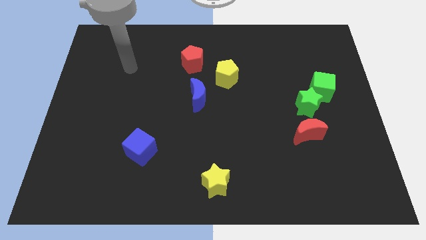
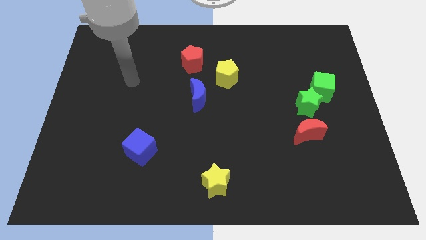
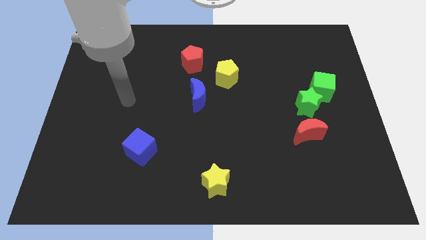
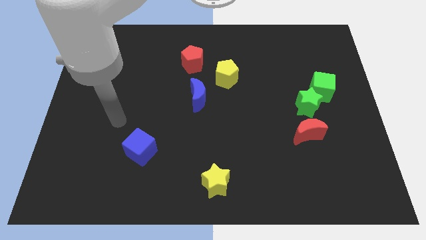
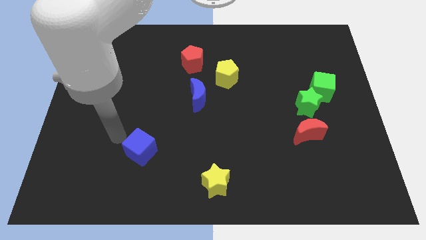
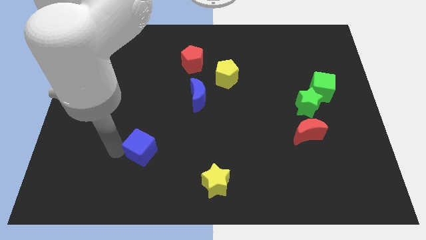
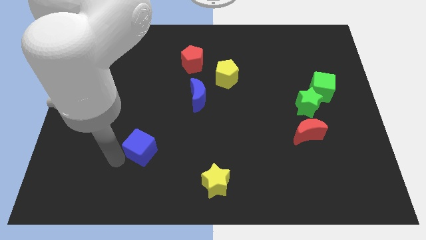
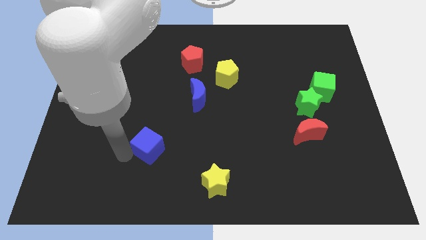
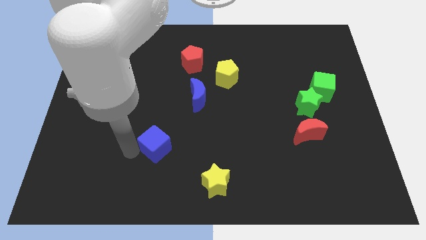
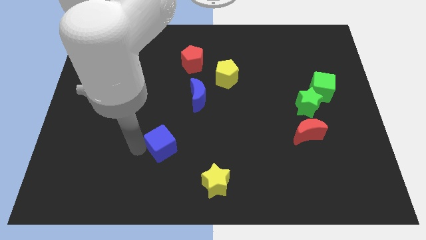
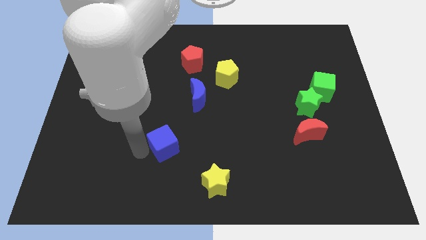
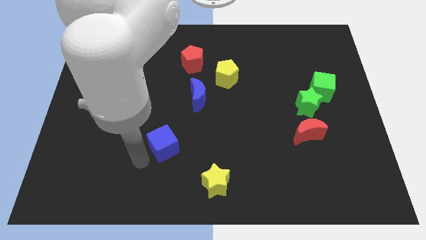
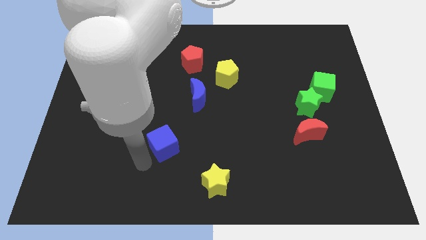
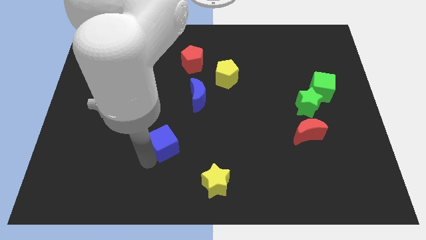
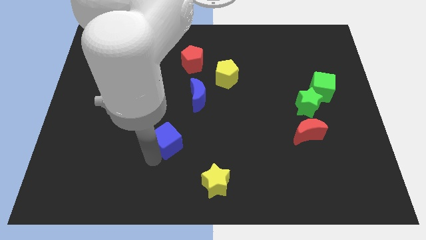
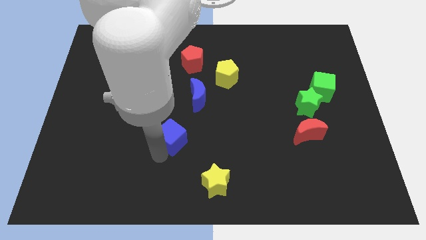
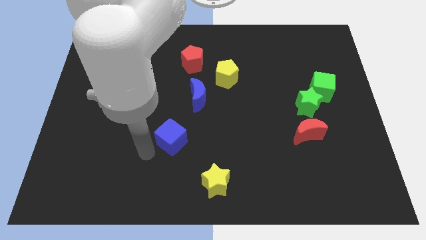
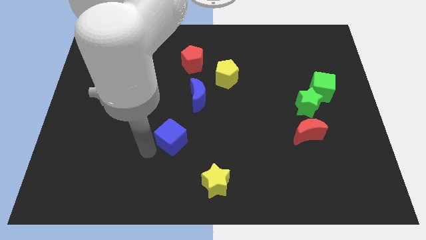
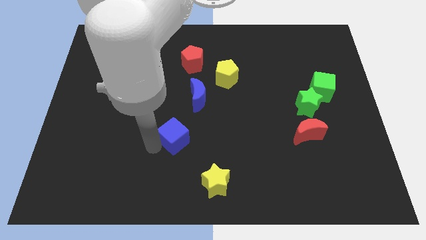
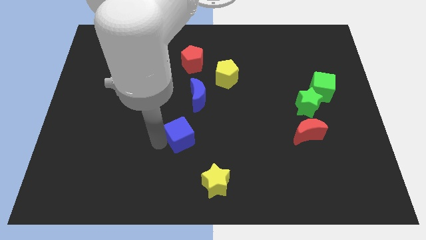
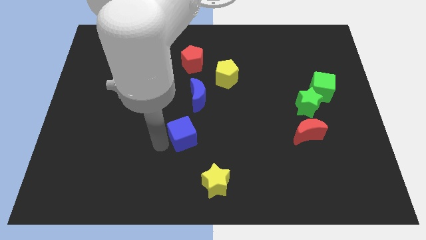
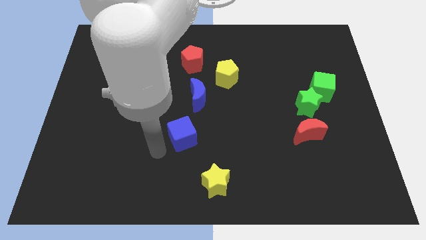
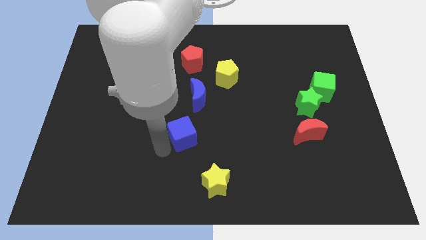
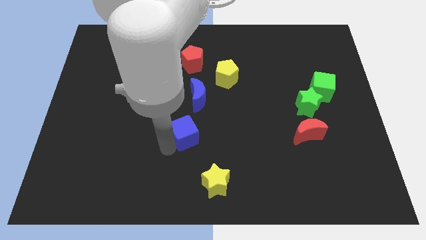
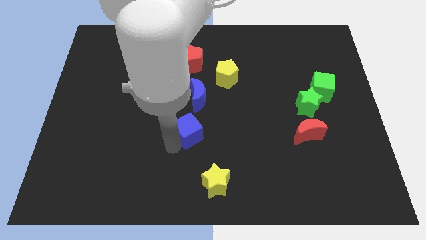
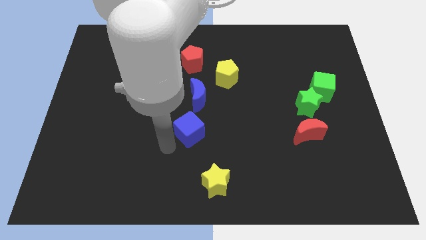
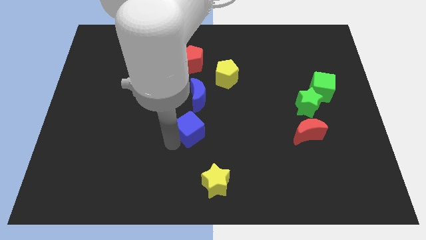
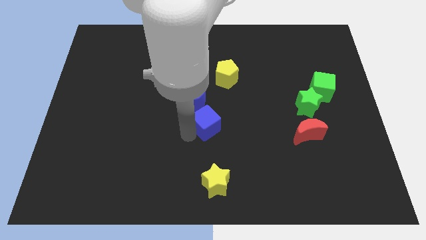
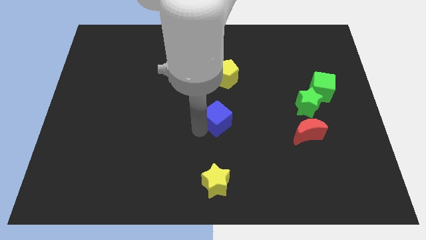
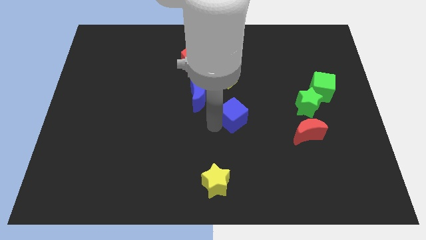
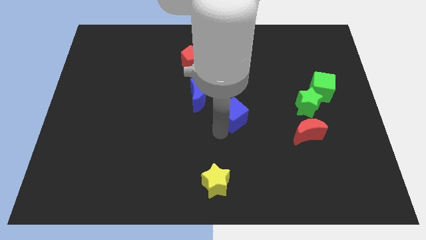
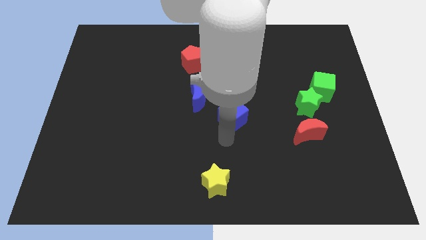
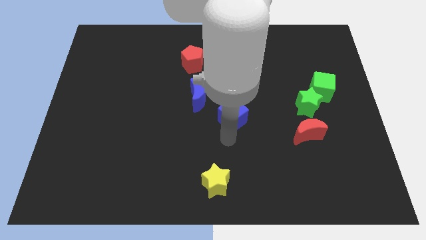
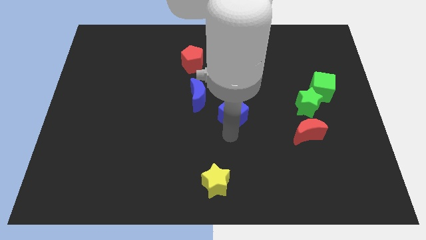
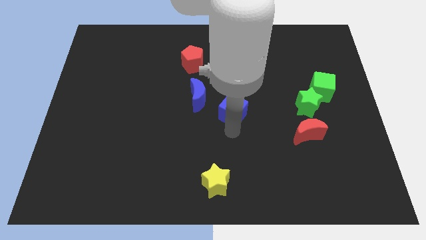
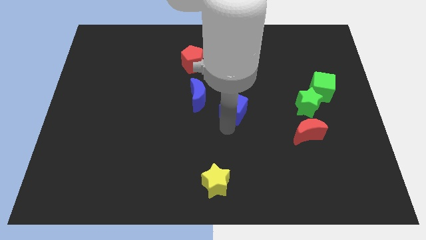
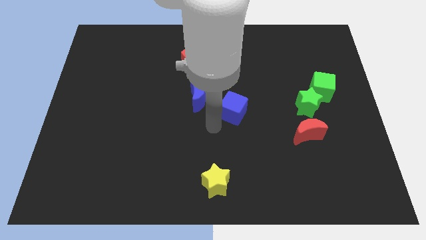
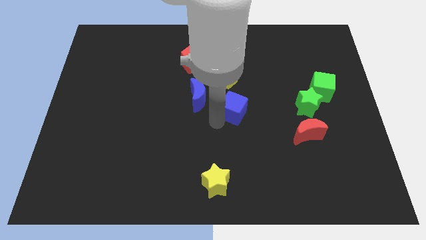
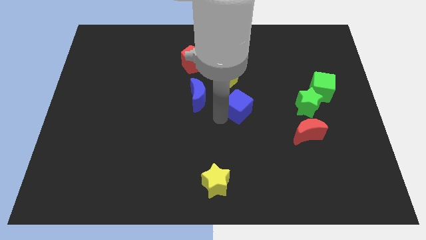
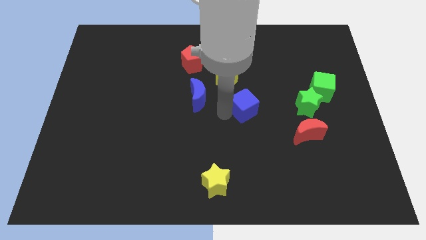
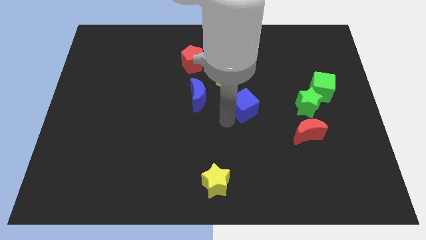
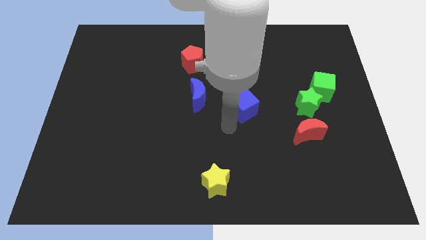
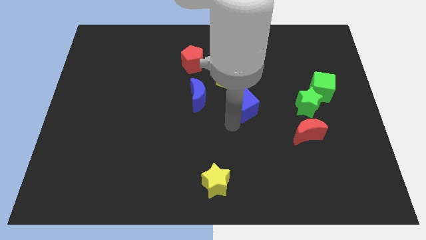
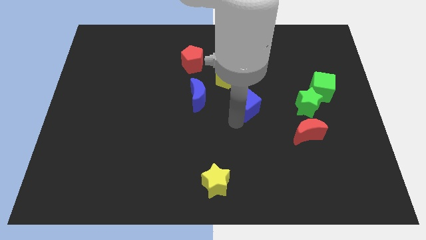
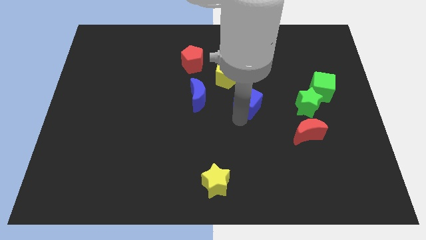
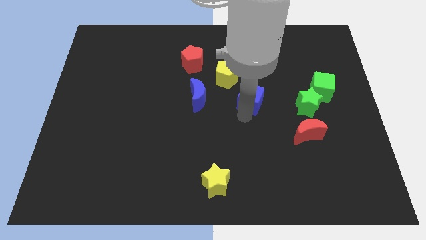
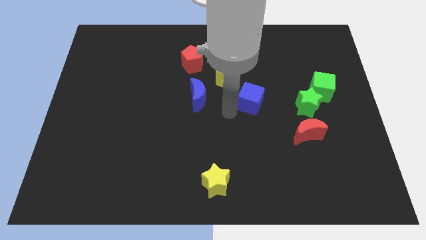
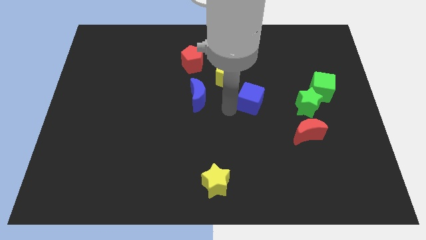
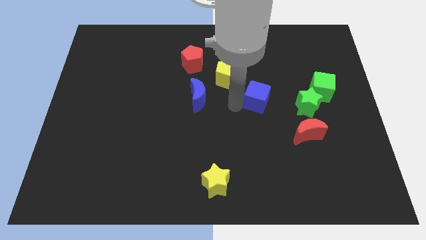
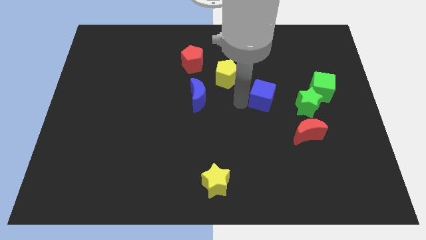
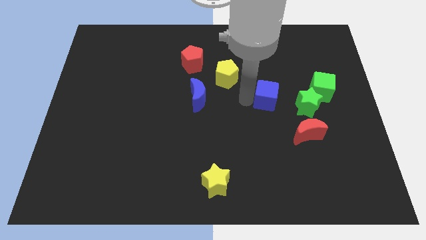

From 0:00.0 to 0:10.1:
move the blue cube to the top left of the green star

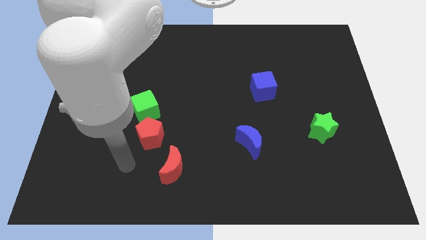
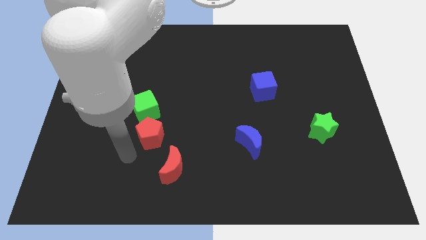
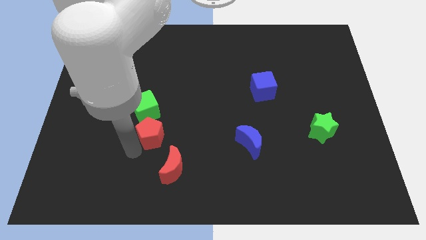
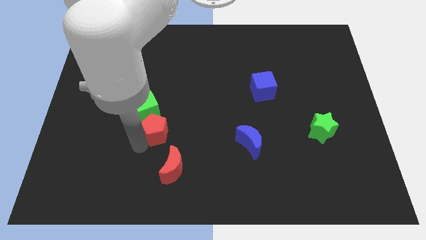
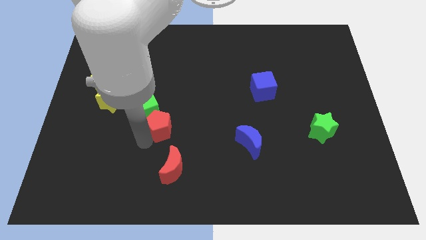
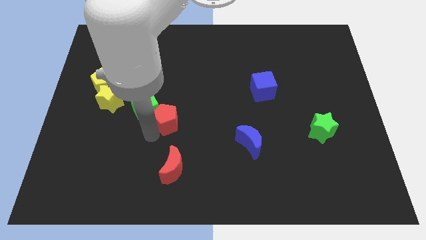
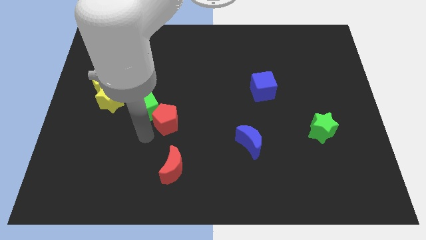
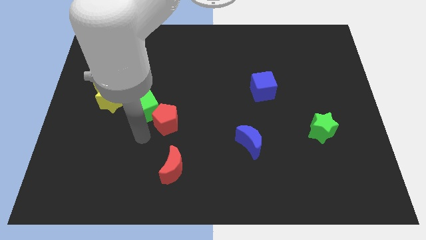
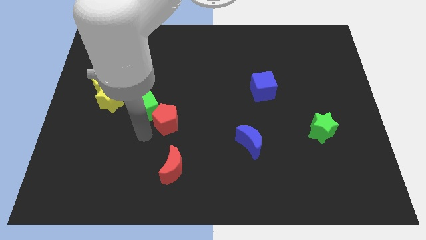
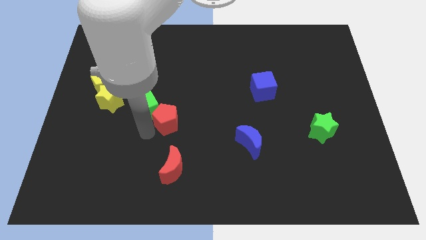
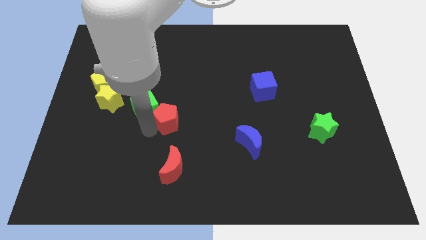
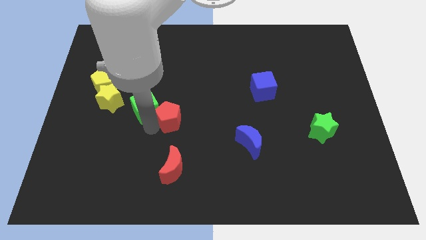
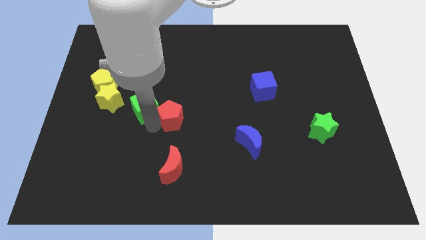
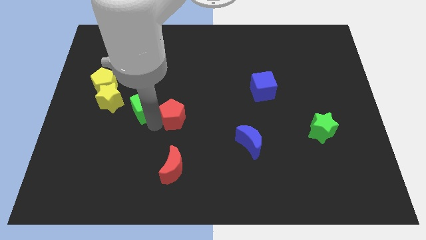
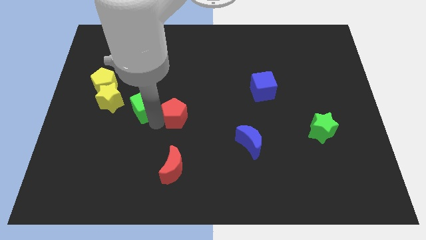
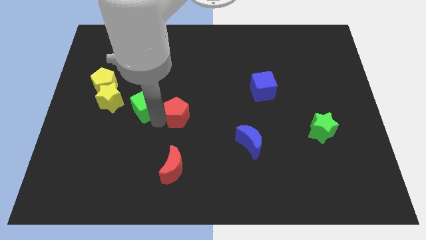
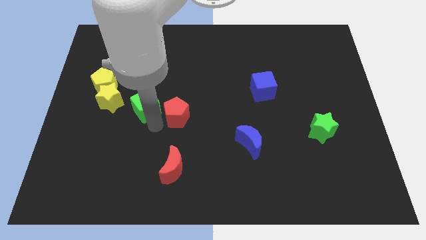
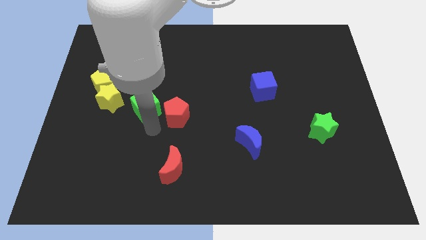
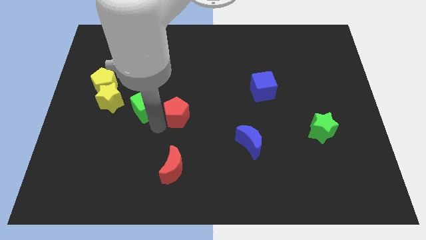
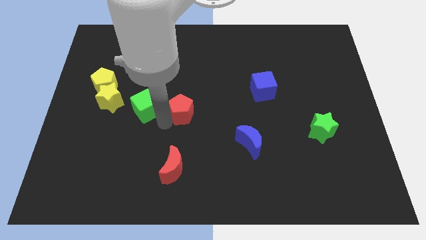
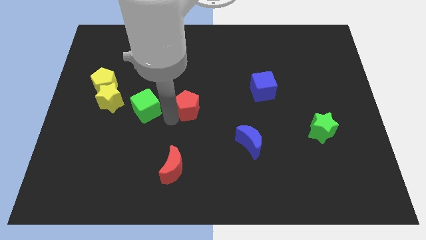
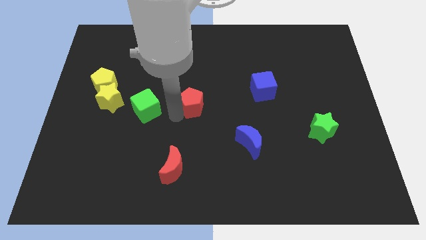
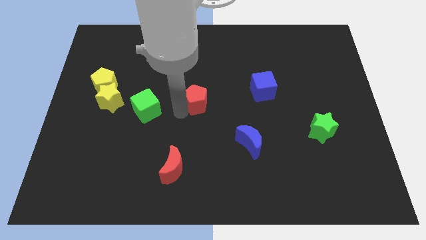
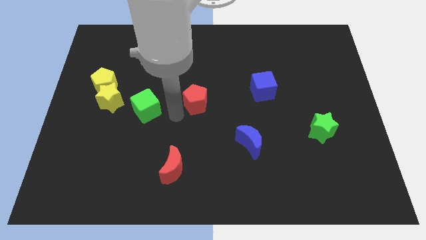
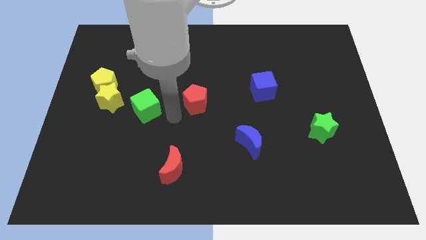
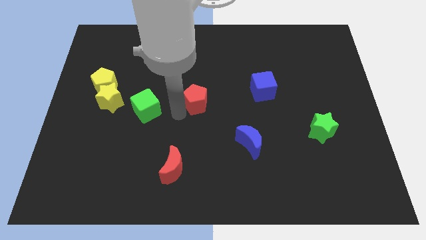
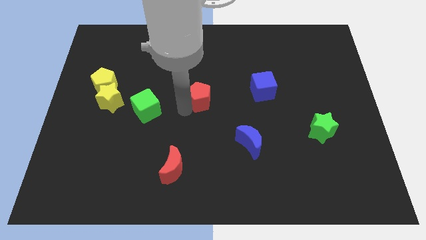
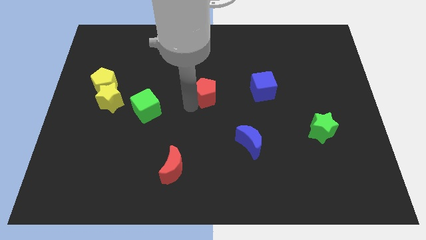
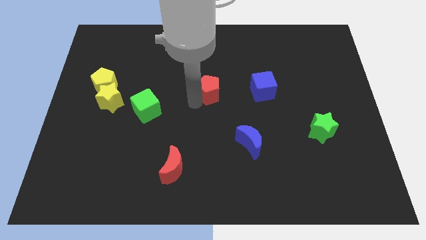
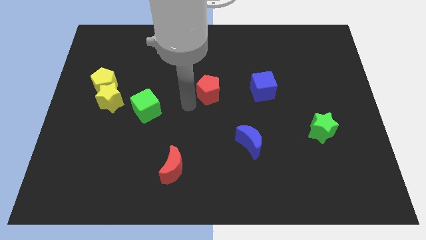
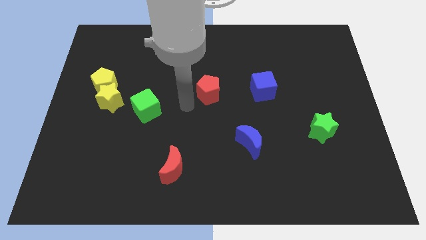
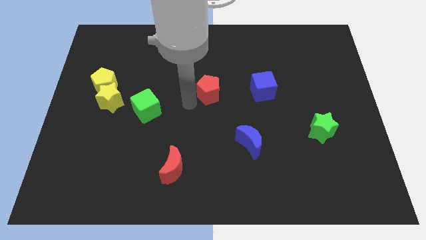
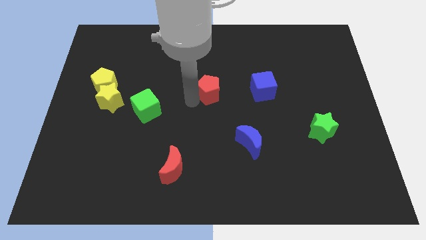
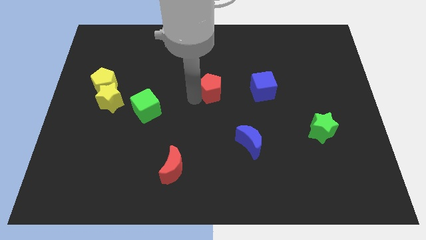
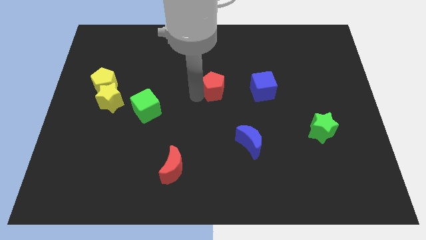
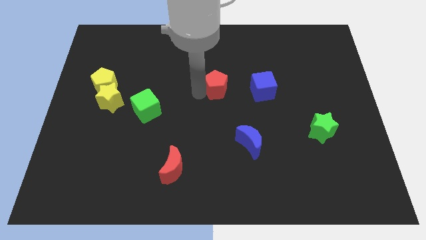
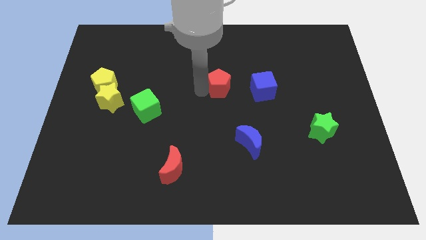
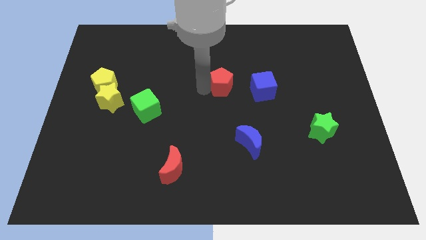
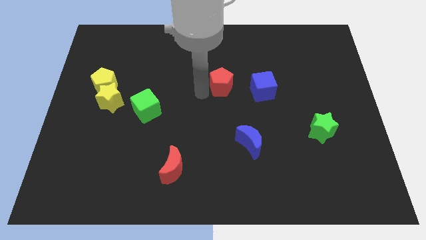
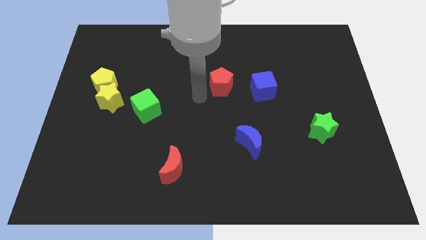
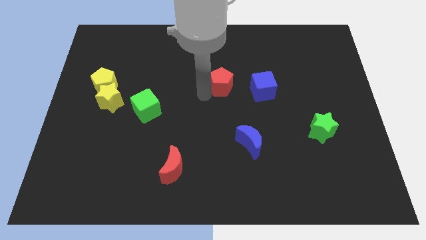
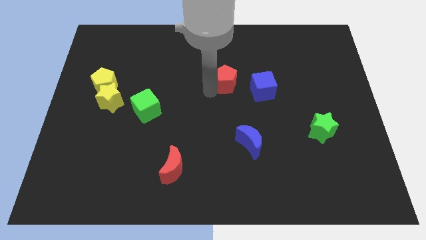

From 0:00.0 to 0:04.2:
move the red pentagon to the top left of the blue cube
